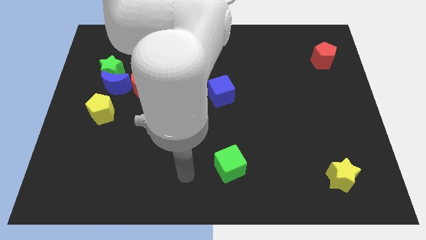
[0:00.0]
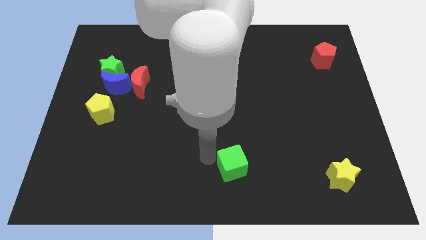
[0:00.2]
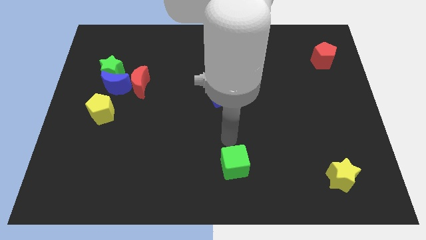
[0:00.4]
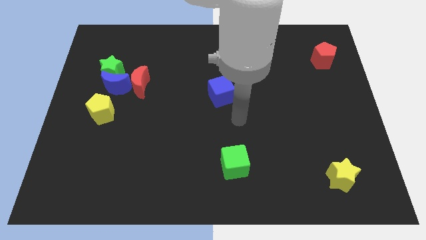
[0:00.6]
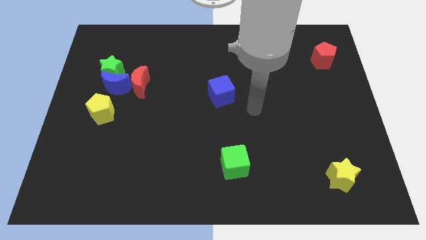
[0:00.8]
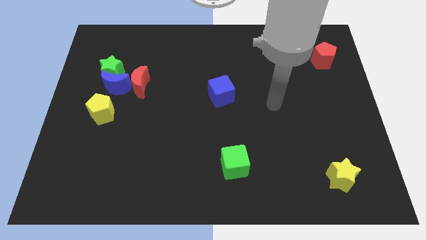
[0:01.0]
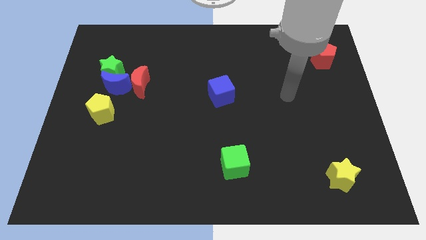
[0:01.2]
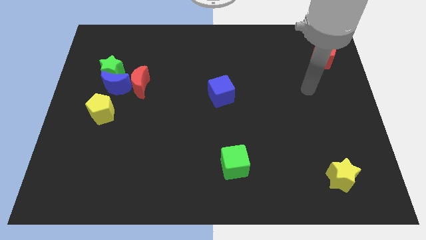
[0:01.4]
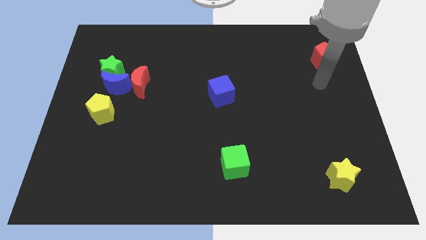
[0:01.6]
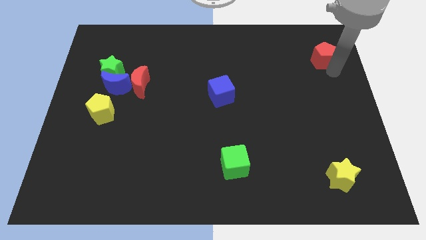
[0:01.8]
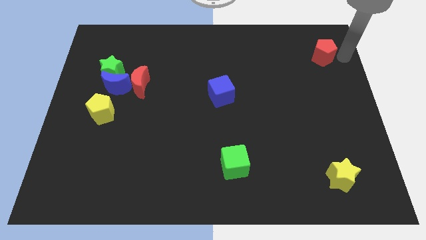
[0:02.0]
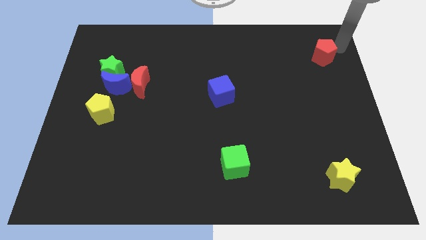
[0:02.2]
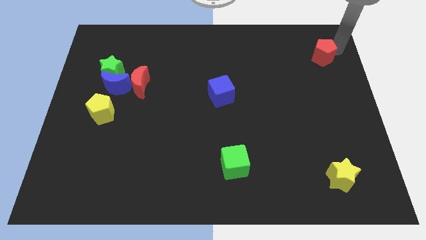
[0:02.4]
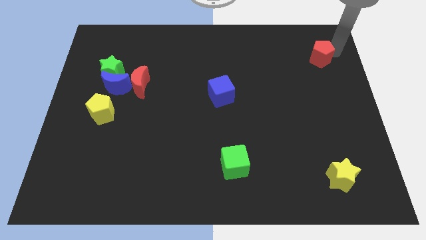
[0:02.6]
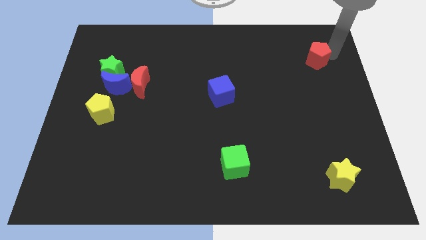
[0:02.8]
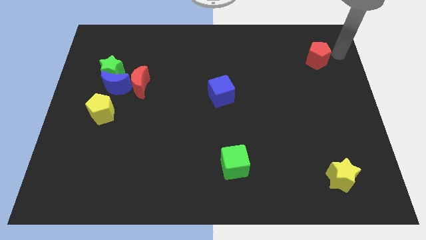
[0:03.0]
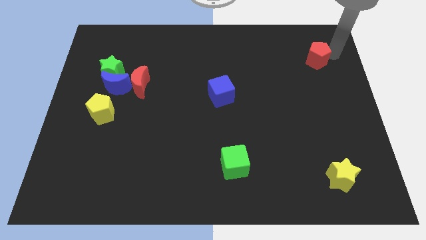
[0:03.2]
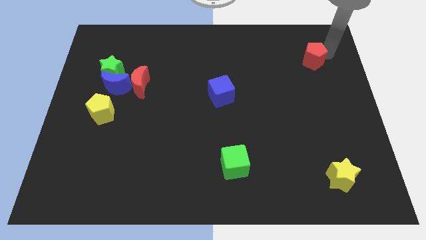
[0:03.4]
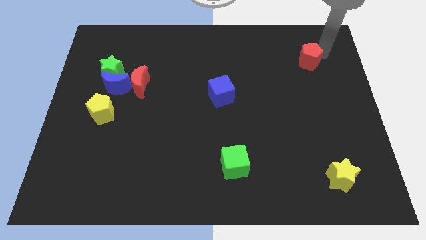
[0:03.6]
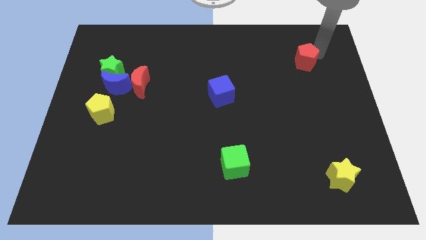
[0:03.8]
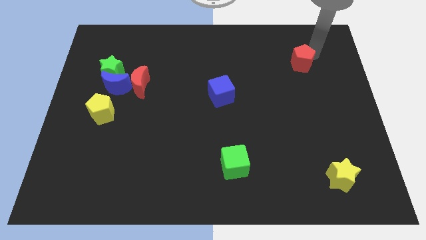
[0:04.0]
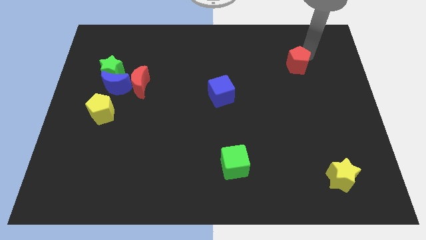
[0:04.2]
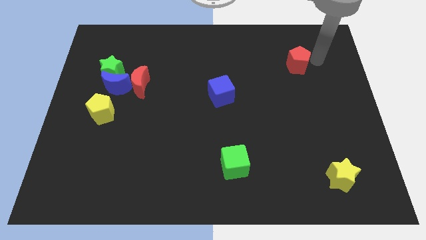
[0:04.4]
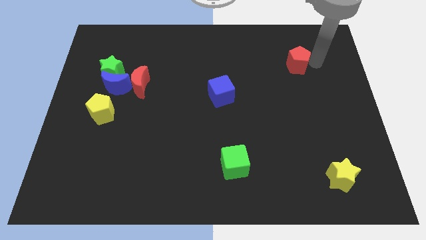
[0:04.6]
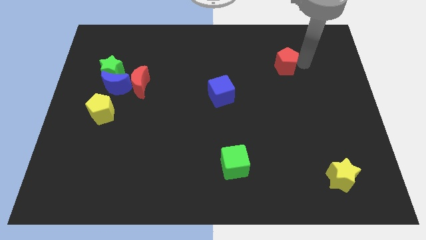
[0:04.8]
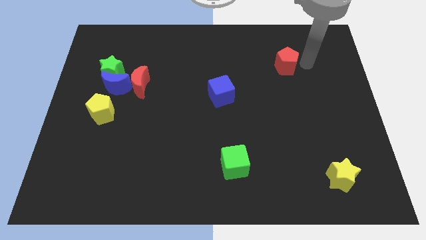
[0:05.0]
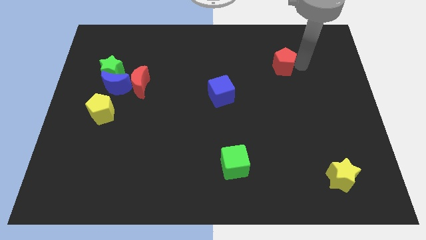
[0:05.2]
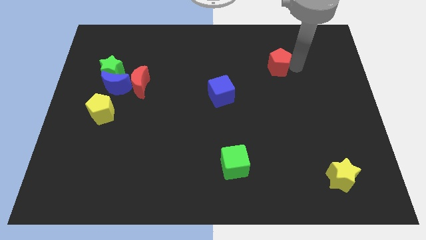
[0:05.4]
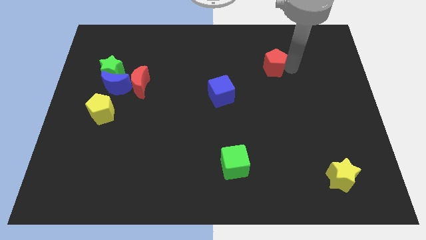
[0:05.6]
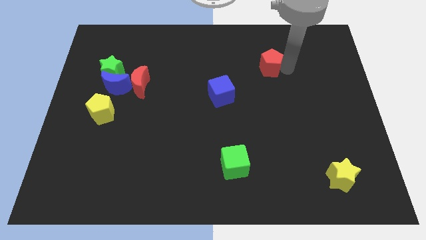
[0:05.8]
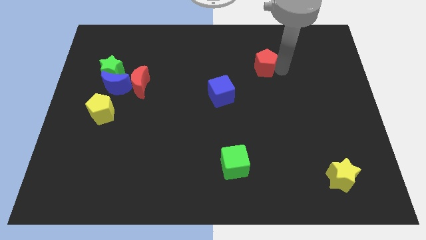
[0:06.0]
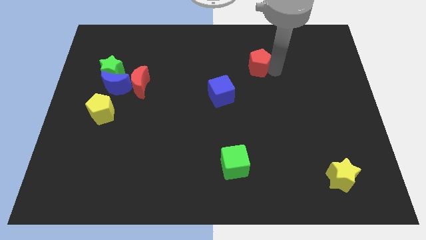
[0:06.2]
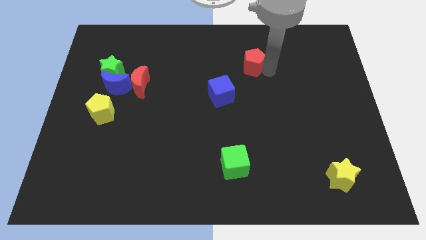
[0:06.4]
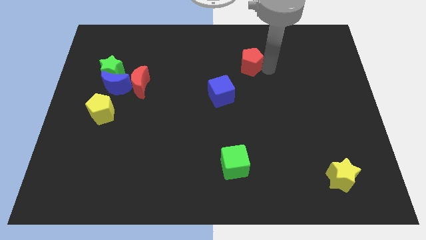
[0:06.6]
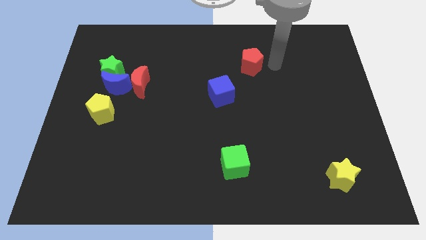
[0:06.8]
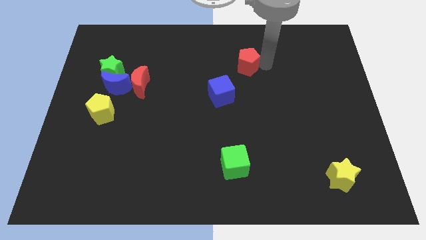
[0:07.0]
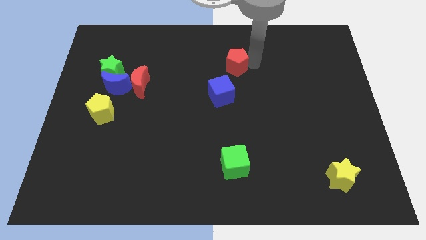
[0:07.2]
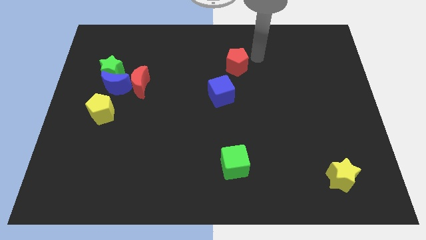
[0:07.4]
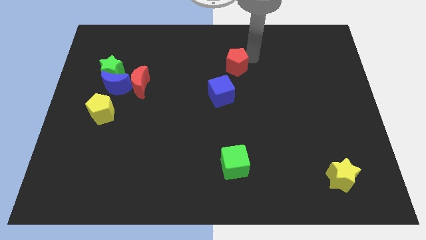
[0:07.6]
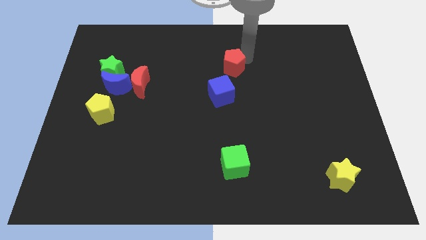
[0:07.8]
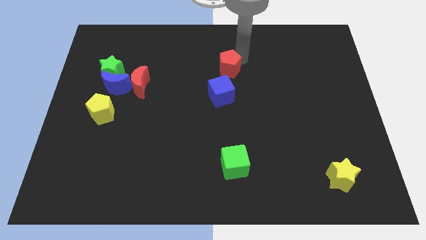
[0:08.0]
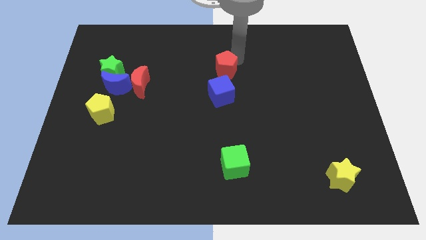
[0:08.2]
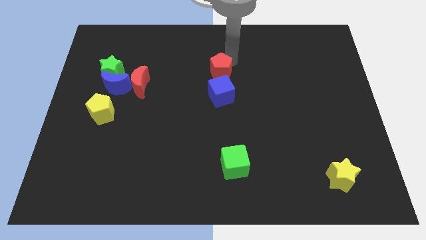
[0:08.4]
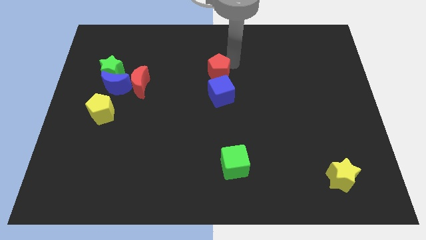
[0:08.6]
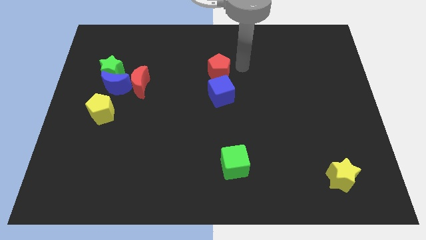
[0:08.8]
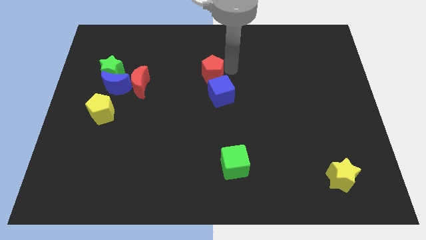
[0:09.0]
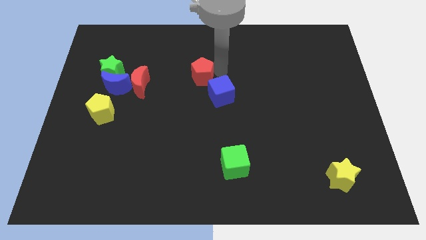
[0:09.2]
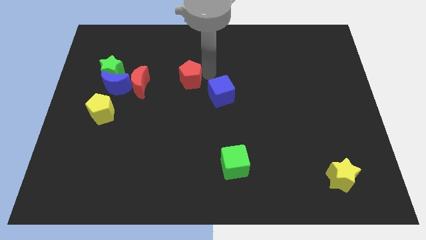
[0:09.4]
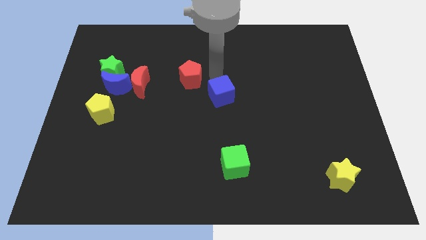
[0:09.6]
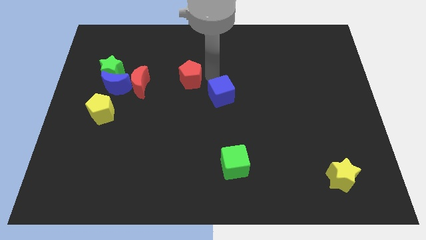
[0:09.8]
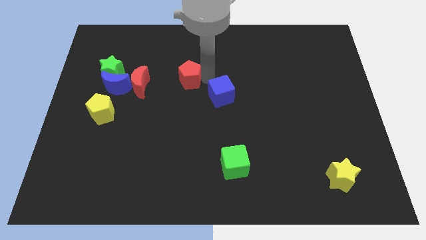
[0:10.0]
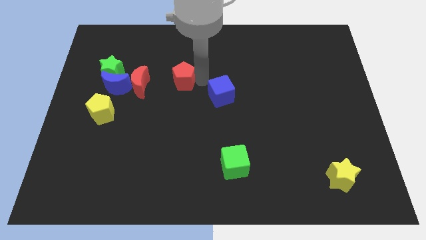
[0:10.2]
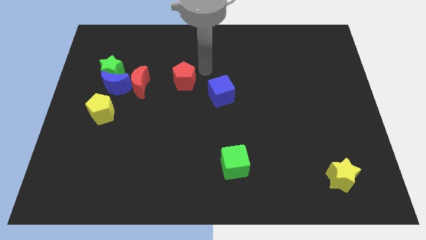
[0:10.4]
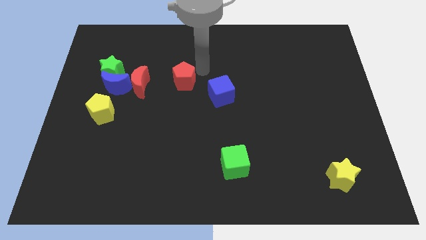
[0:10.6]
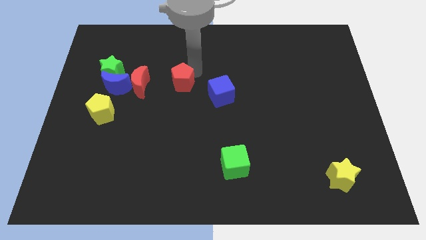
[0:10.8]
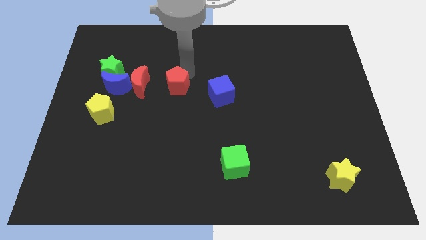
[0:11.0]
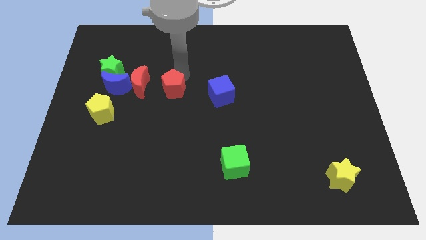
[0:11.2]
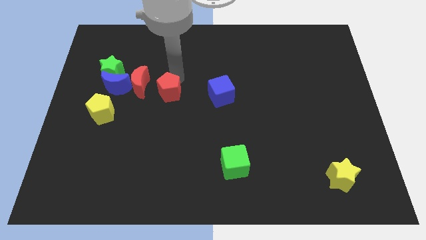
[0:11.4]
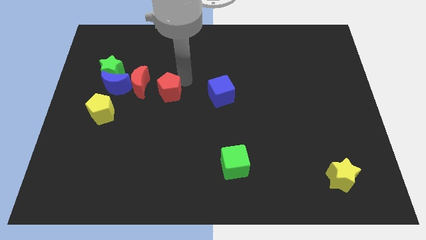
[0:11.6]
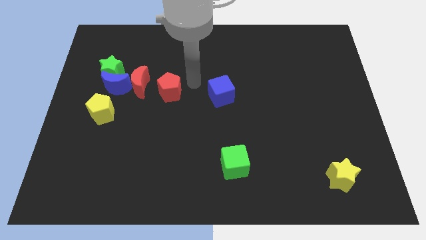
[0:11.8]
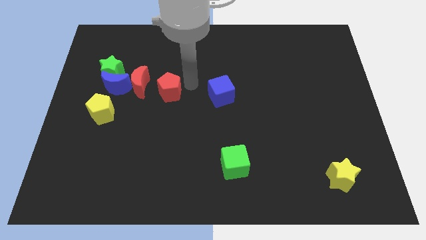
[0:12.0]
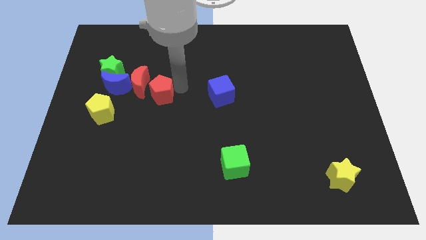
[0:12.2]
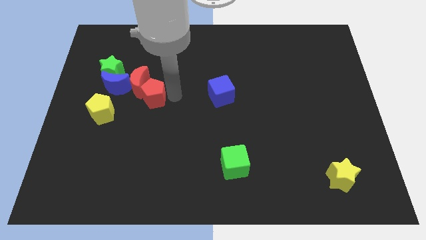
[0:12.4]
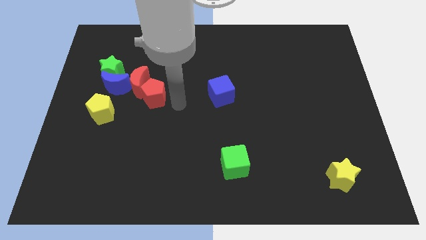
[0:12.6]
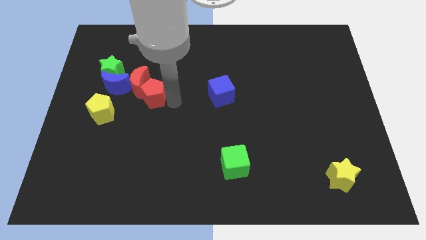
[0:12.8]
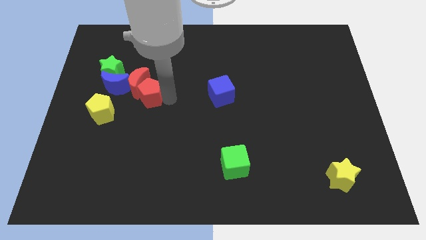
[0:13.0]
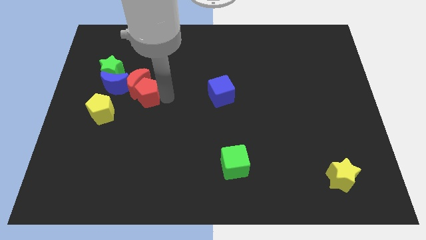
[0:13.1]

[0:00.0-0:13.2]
push the red pentagon diagonally down and to the right of the green star

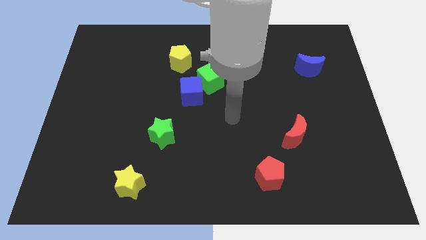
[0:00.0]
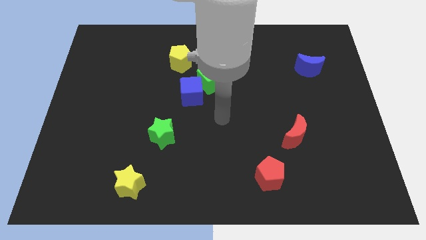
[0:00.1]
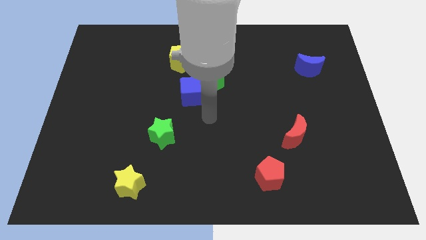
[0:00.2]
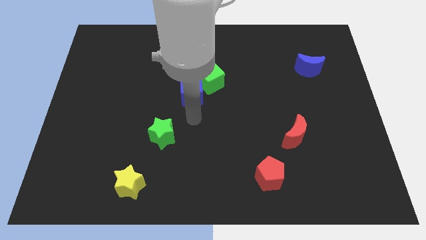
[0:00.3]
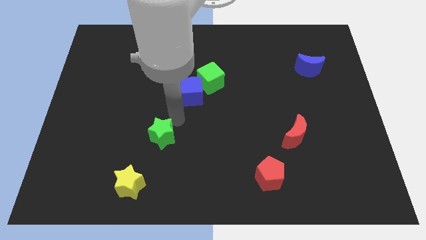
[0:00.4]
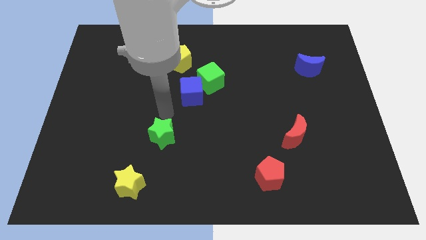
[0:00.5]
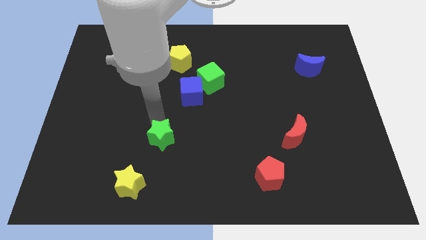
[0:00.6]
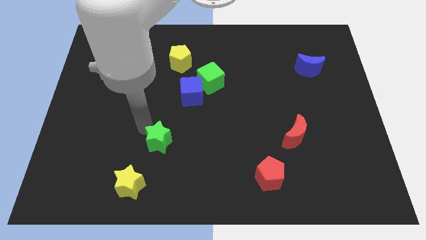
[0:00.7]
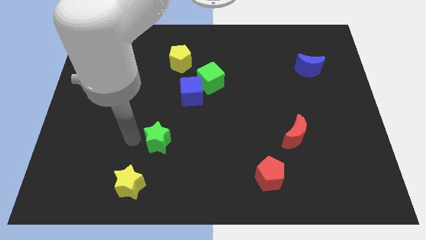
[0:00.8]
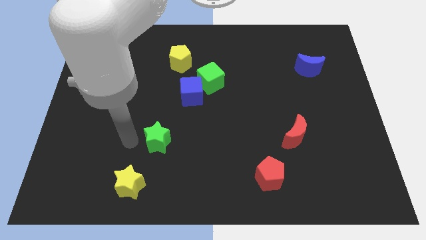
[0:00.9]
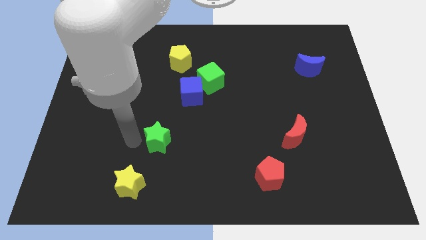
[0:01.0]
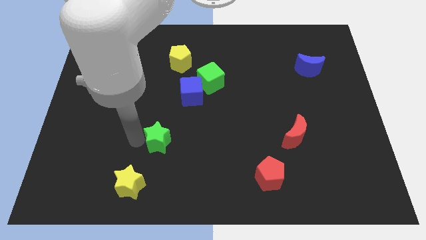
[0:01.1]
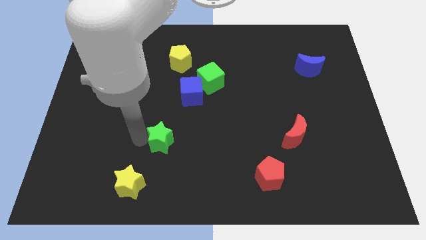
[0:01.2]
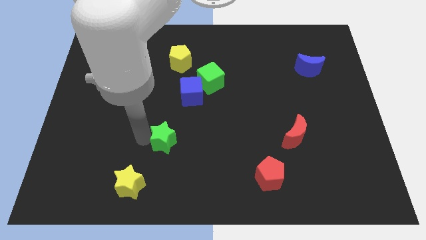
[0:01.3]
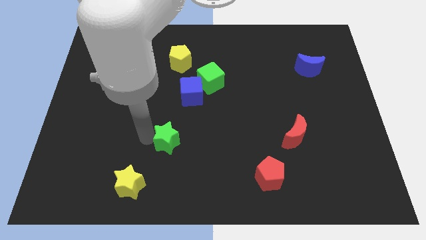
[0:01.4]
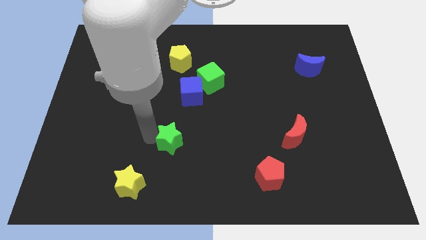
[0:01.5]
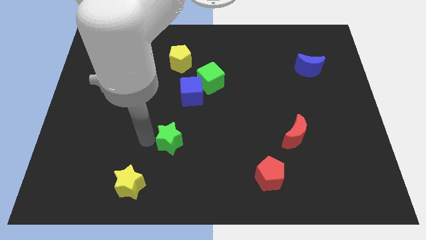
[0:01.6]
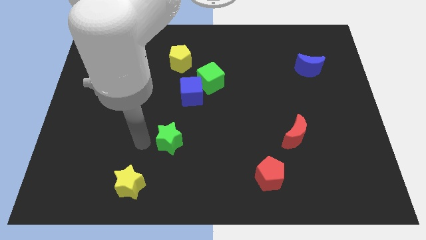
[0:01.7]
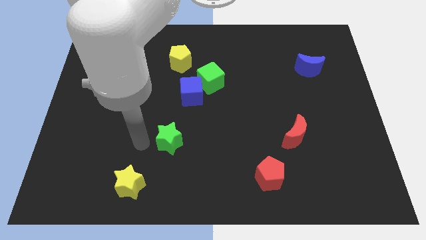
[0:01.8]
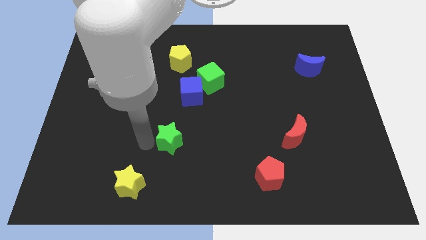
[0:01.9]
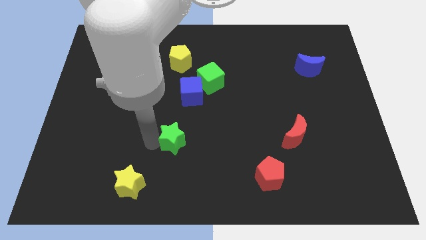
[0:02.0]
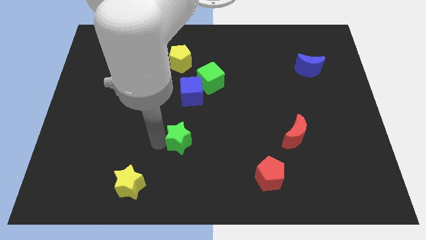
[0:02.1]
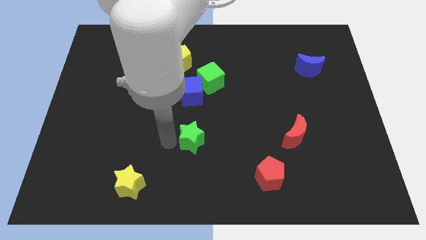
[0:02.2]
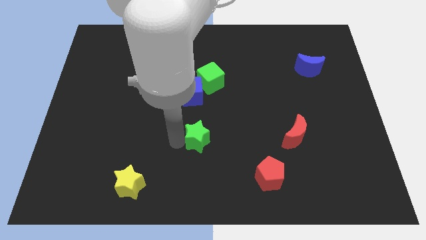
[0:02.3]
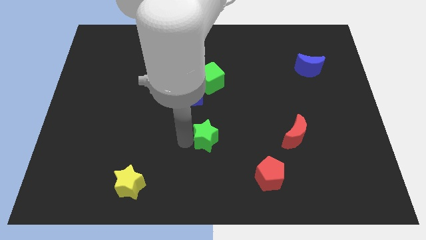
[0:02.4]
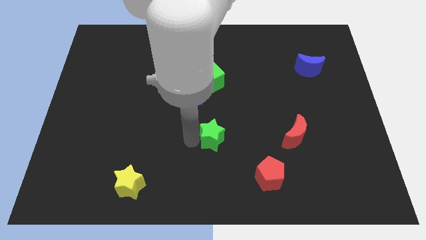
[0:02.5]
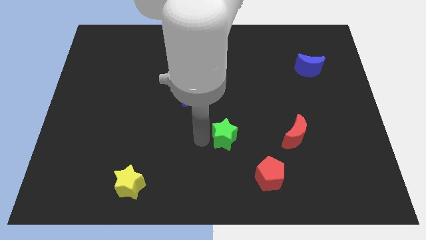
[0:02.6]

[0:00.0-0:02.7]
move the green star left of the red moon
